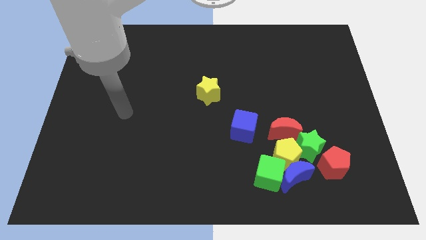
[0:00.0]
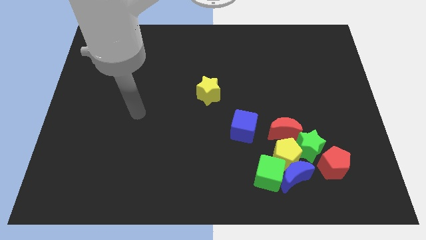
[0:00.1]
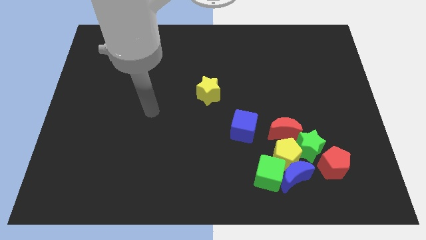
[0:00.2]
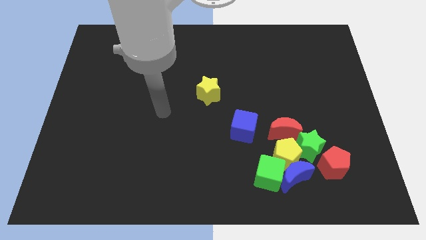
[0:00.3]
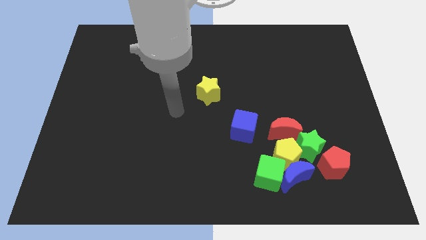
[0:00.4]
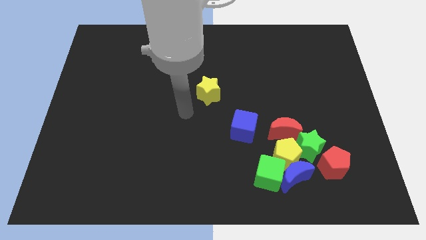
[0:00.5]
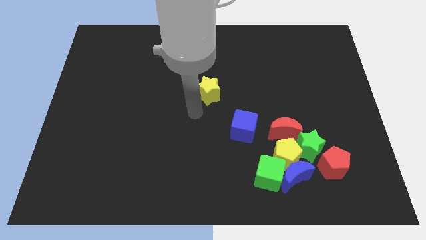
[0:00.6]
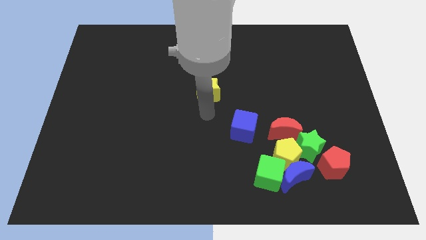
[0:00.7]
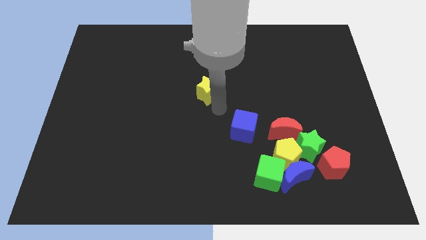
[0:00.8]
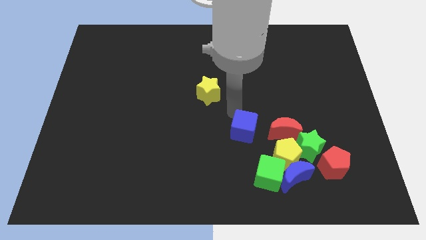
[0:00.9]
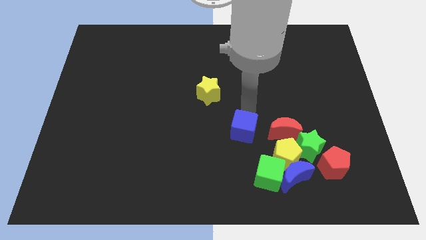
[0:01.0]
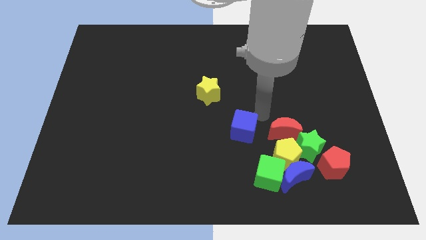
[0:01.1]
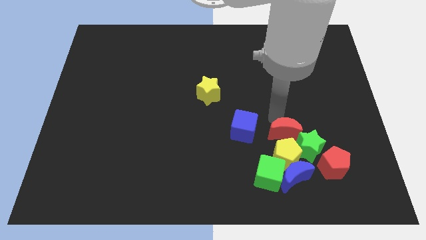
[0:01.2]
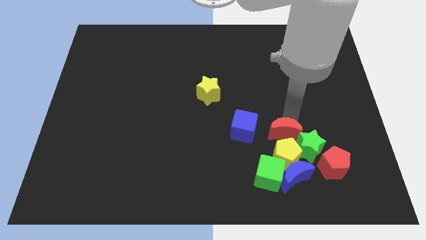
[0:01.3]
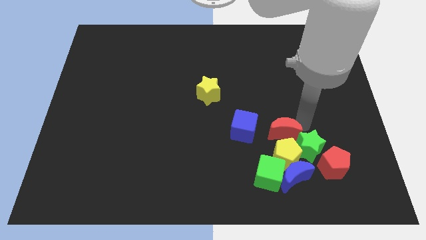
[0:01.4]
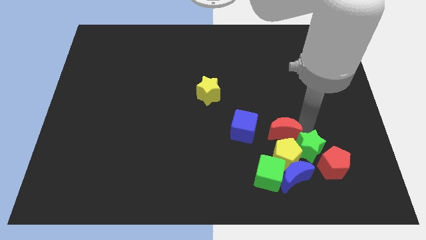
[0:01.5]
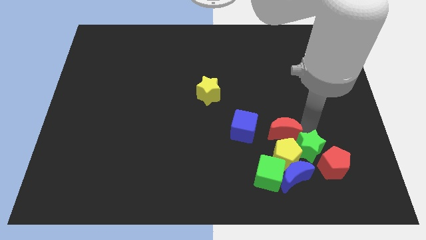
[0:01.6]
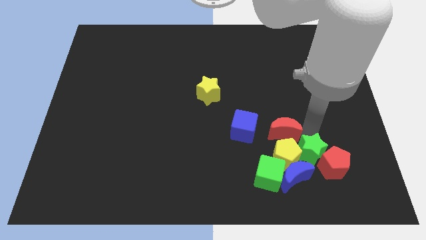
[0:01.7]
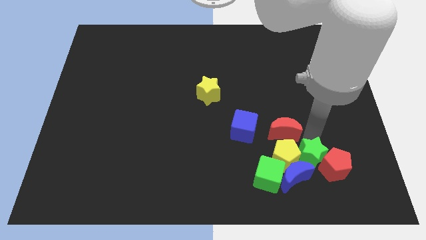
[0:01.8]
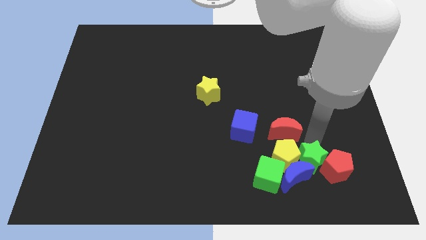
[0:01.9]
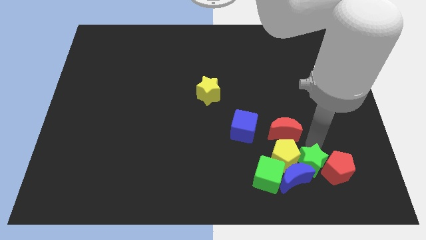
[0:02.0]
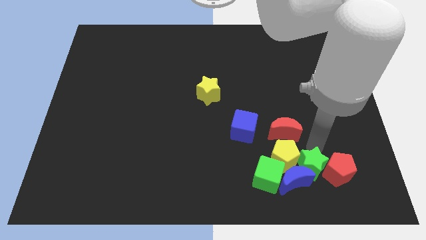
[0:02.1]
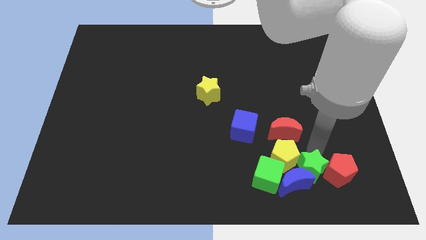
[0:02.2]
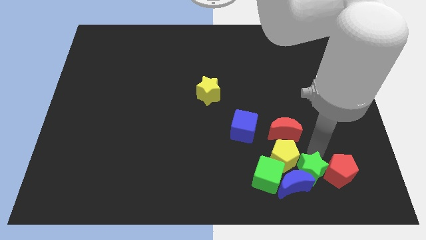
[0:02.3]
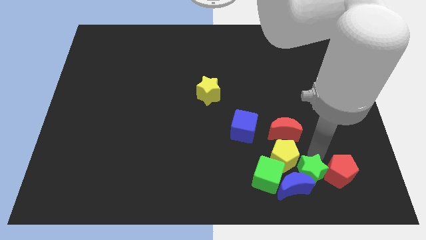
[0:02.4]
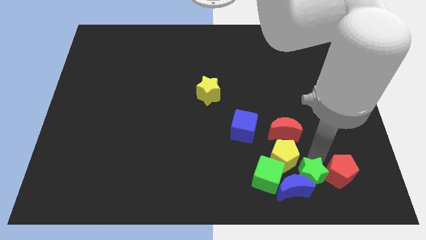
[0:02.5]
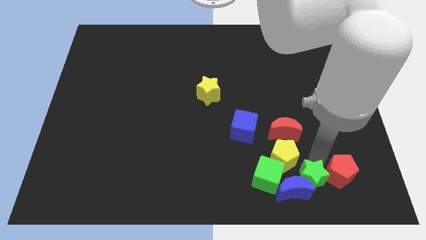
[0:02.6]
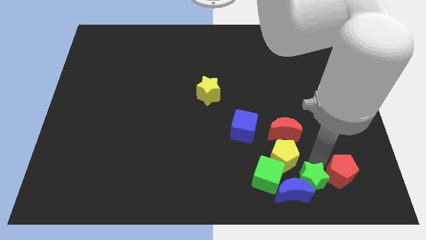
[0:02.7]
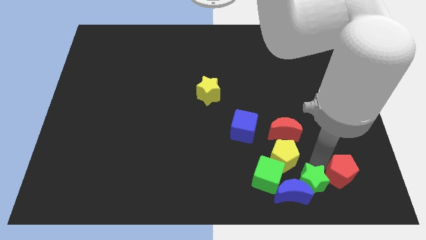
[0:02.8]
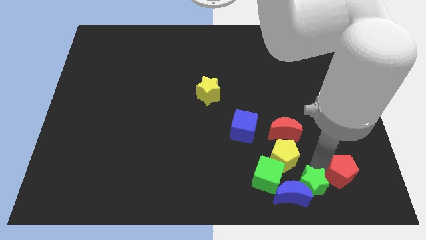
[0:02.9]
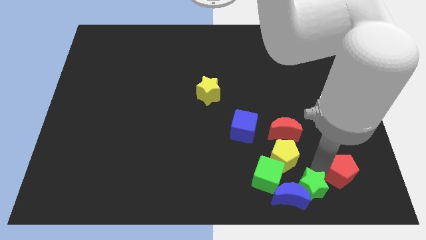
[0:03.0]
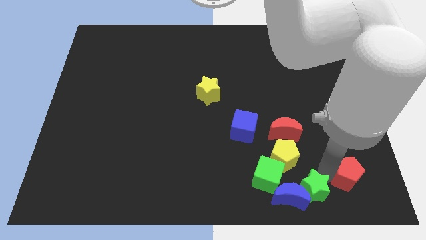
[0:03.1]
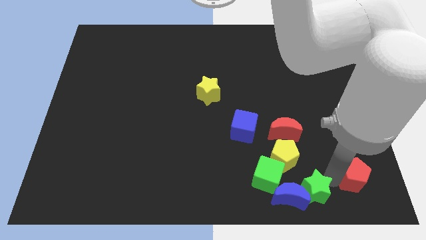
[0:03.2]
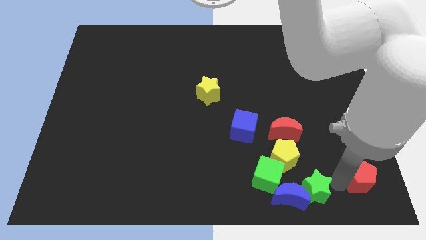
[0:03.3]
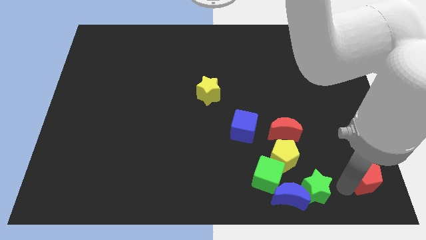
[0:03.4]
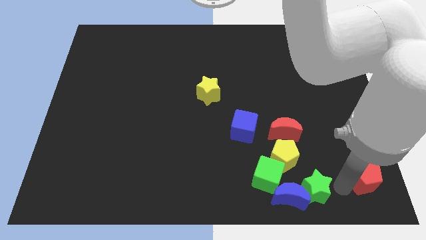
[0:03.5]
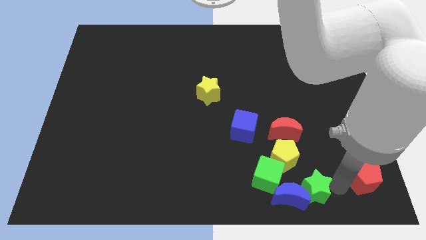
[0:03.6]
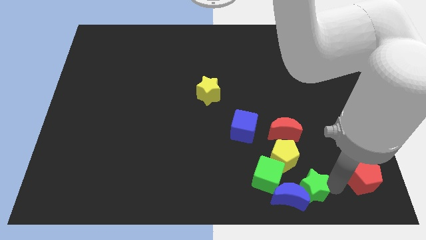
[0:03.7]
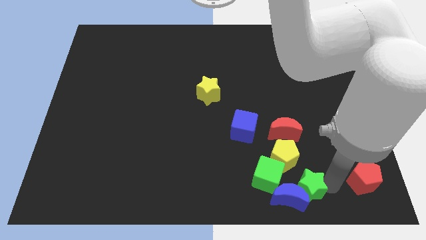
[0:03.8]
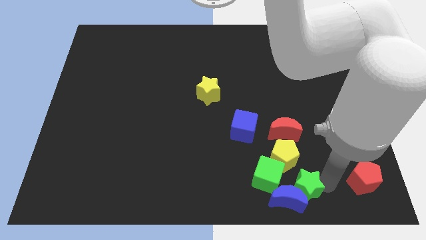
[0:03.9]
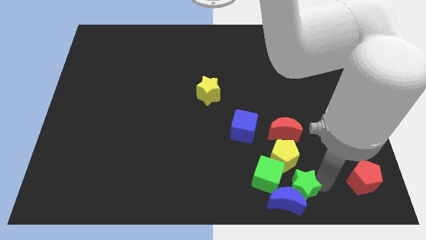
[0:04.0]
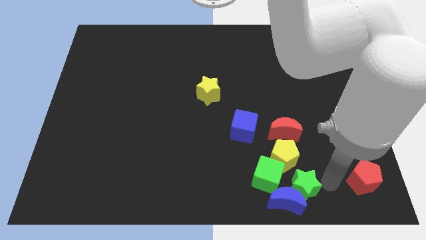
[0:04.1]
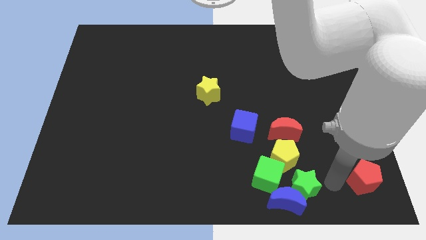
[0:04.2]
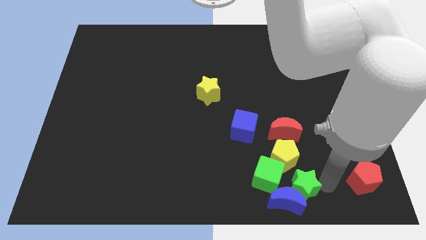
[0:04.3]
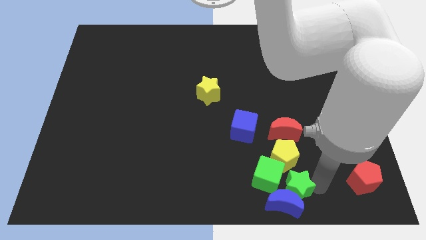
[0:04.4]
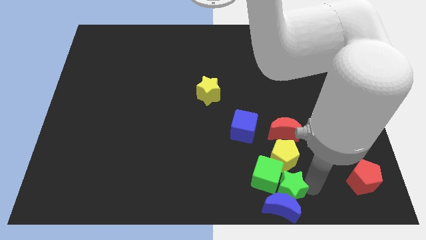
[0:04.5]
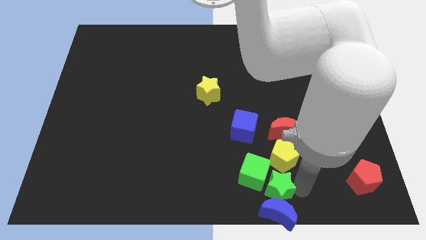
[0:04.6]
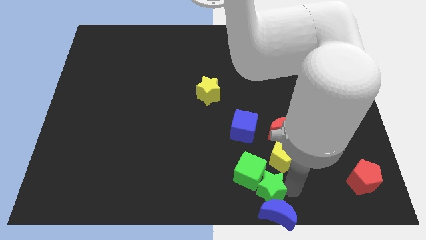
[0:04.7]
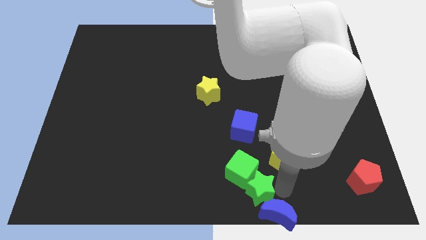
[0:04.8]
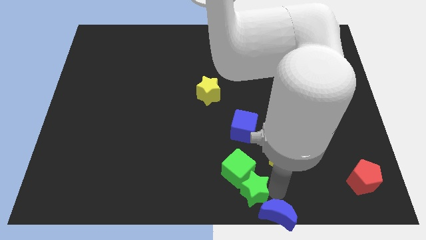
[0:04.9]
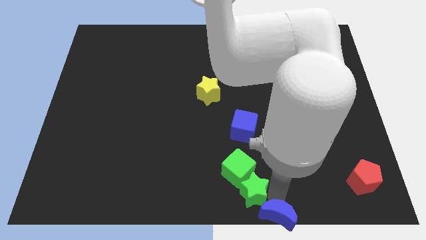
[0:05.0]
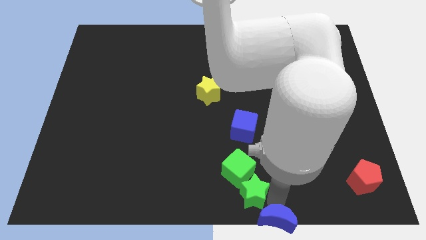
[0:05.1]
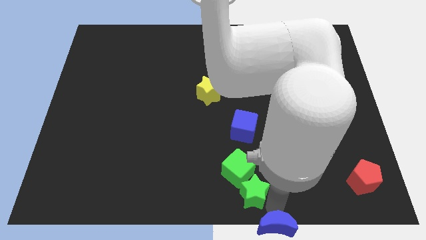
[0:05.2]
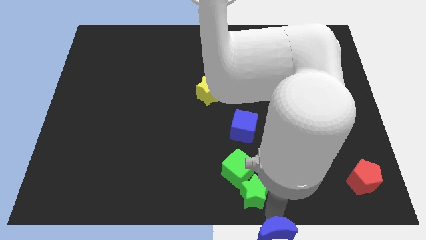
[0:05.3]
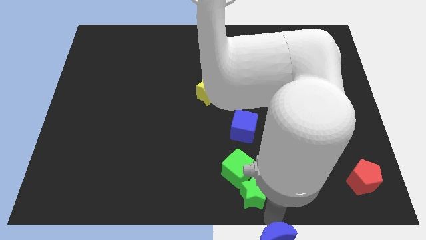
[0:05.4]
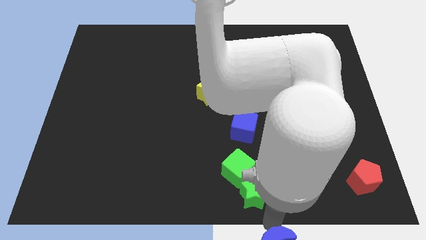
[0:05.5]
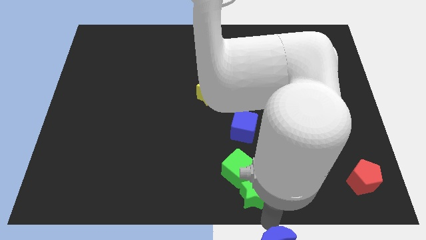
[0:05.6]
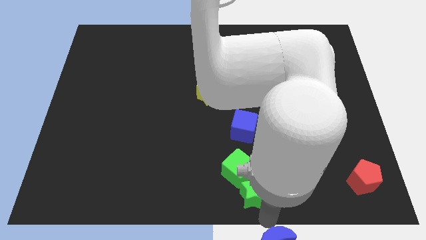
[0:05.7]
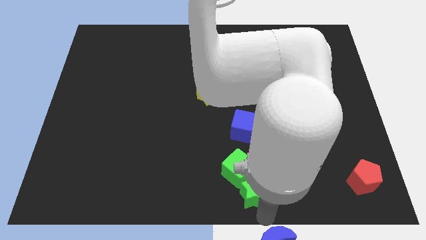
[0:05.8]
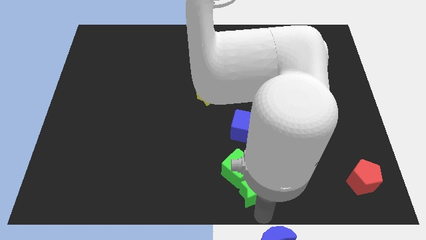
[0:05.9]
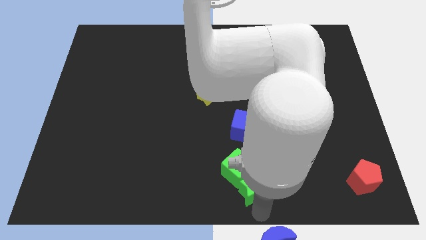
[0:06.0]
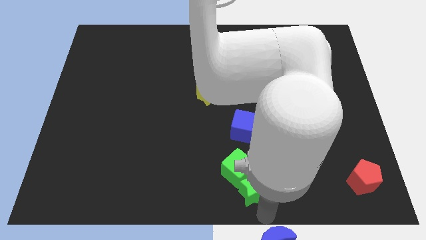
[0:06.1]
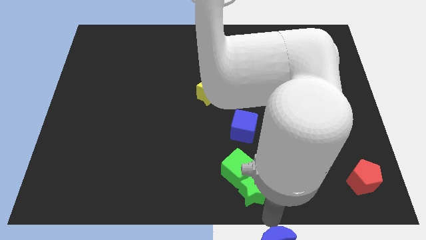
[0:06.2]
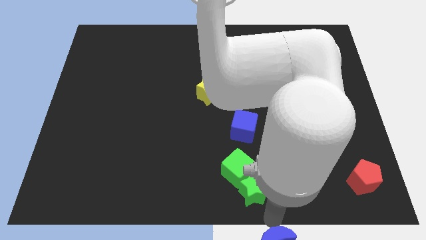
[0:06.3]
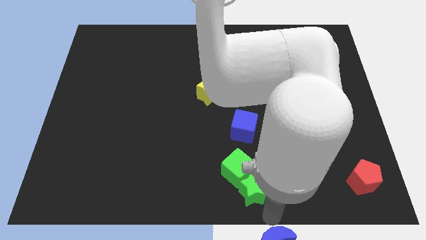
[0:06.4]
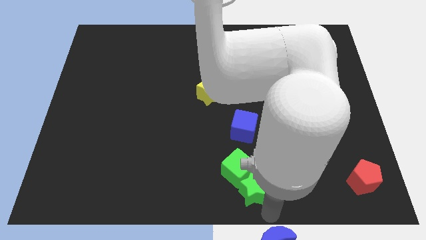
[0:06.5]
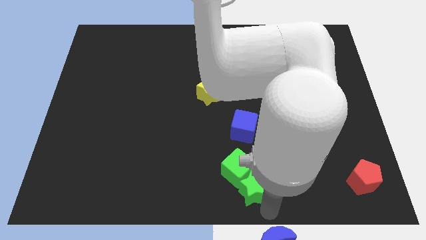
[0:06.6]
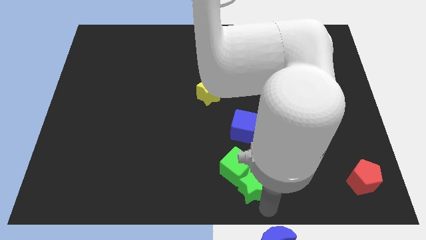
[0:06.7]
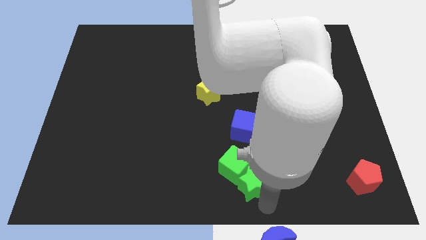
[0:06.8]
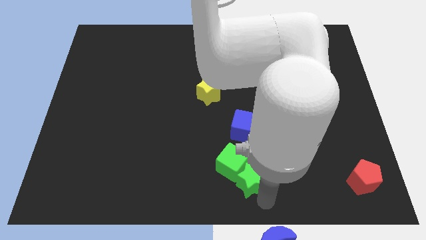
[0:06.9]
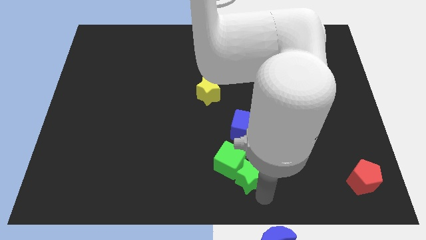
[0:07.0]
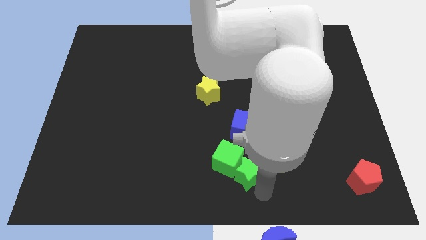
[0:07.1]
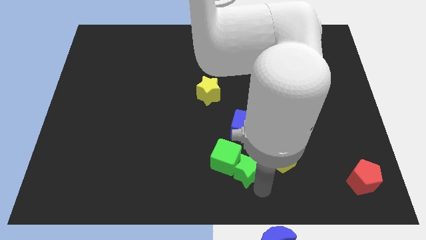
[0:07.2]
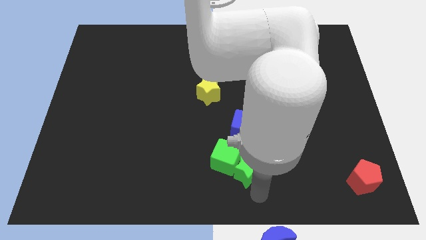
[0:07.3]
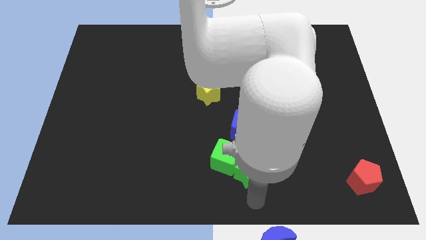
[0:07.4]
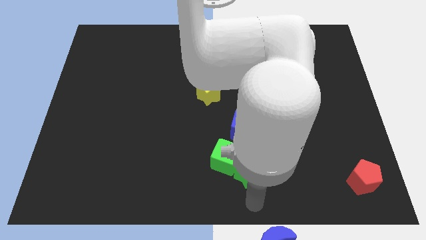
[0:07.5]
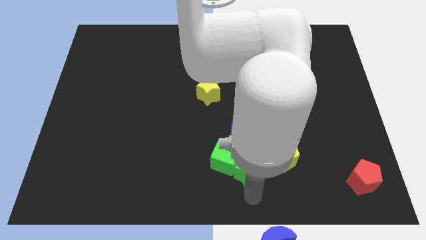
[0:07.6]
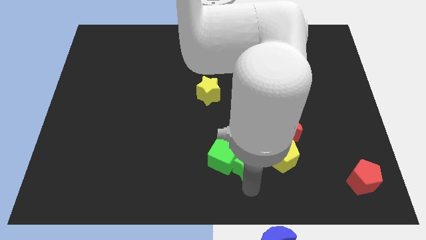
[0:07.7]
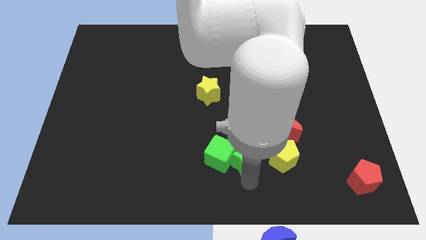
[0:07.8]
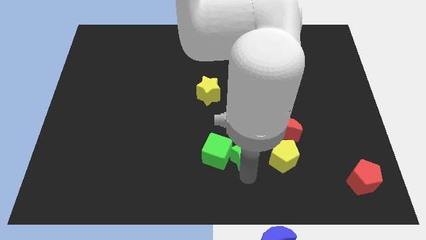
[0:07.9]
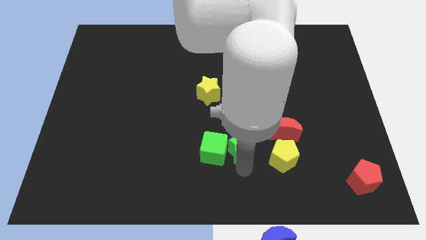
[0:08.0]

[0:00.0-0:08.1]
slide the green star to the top left of the yellow pentagon
